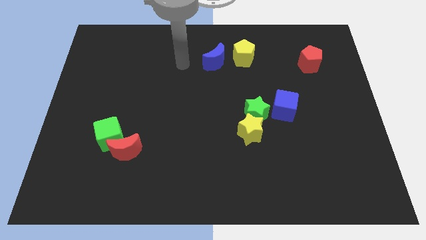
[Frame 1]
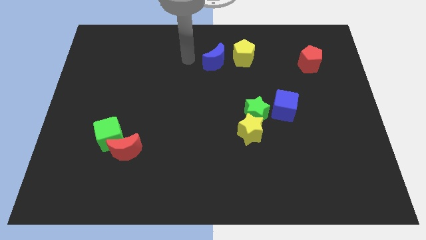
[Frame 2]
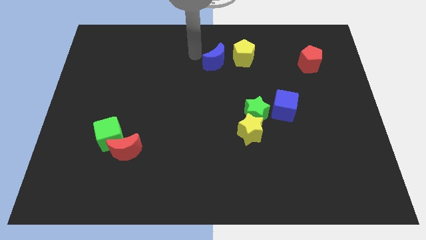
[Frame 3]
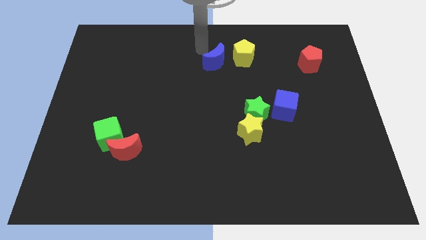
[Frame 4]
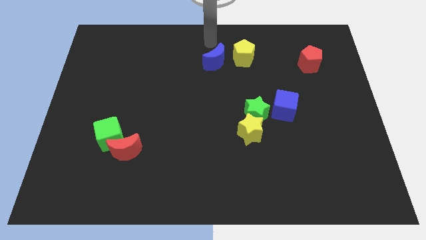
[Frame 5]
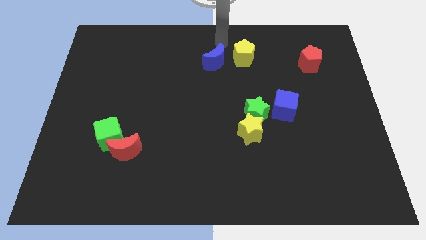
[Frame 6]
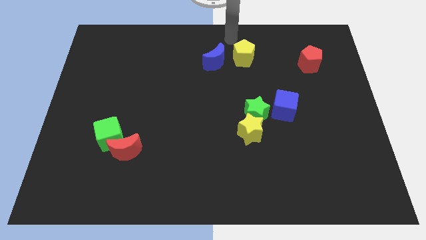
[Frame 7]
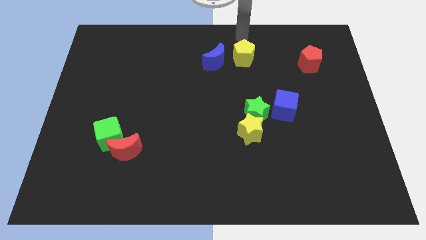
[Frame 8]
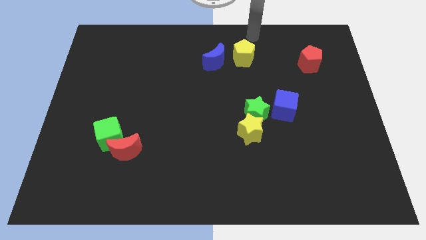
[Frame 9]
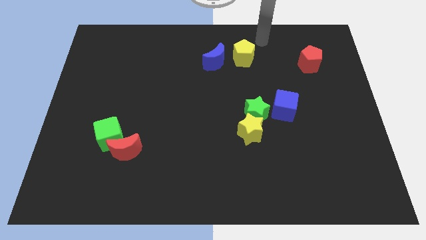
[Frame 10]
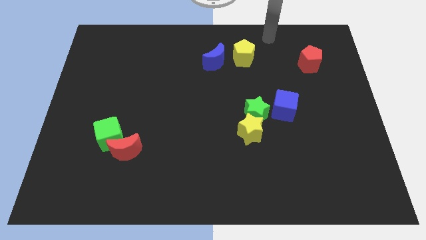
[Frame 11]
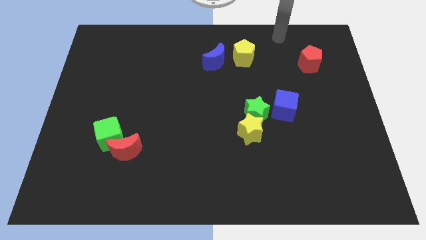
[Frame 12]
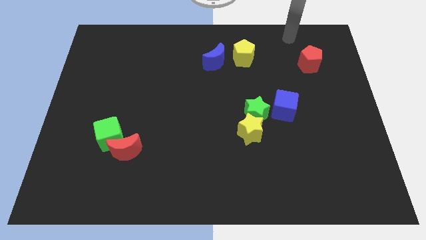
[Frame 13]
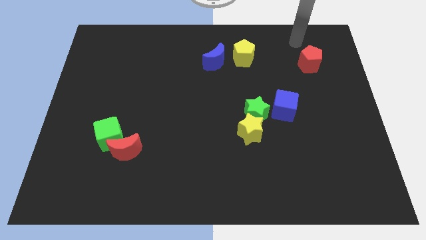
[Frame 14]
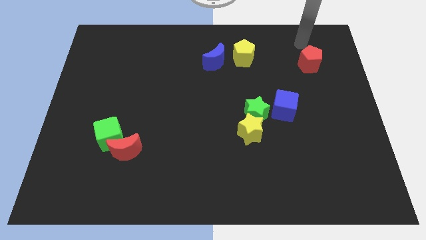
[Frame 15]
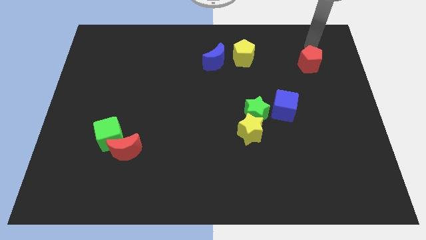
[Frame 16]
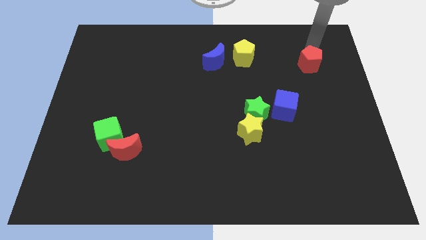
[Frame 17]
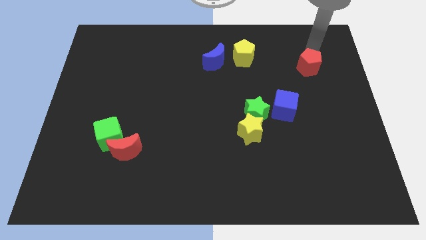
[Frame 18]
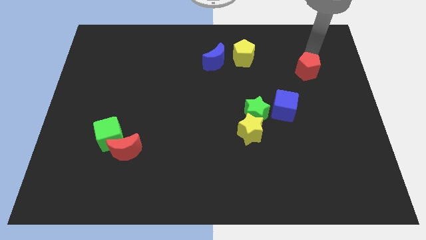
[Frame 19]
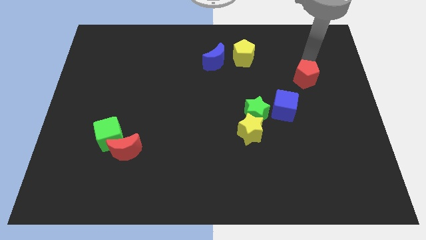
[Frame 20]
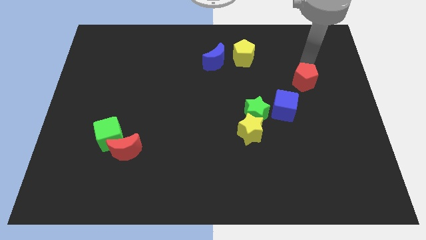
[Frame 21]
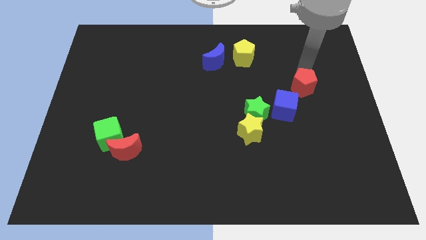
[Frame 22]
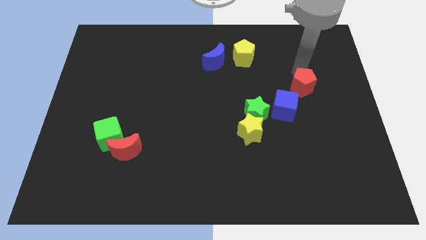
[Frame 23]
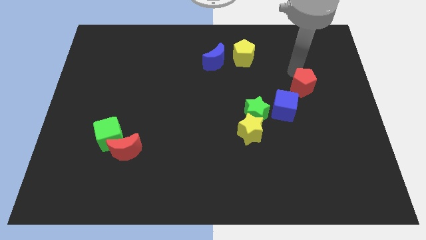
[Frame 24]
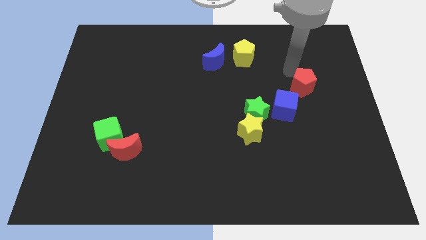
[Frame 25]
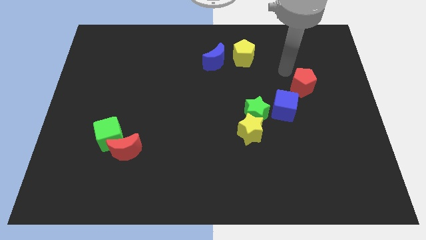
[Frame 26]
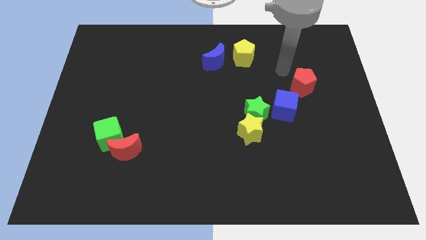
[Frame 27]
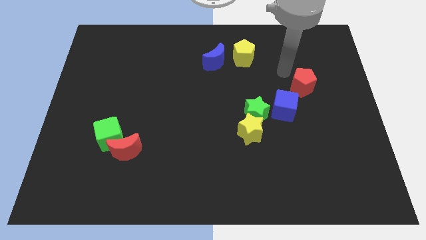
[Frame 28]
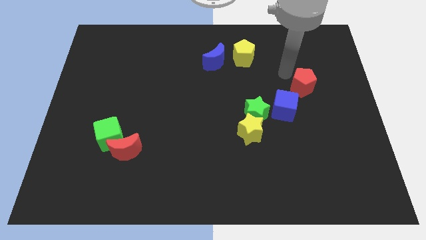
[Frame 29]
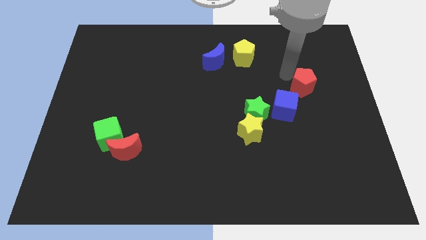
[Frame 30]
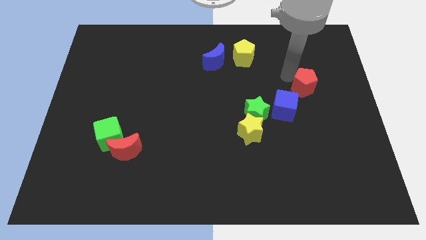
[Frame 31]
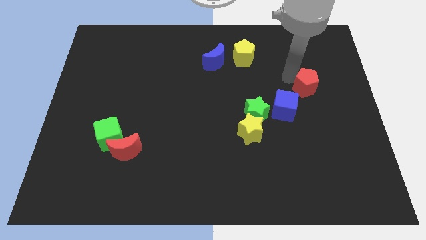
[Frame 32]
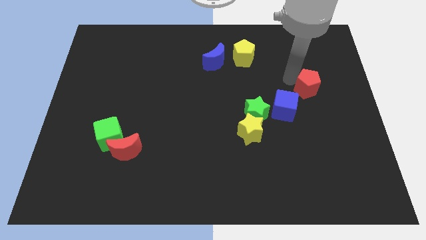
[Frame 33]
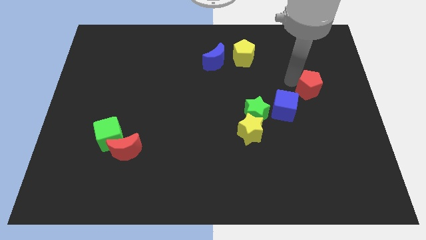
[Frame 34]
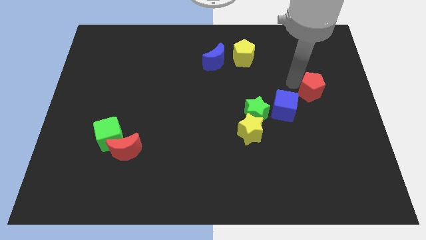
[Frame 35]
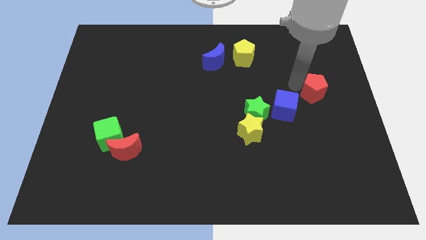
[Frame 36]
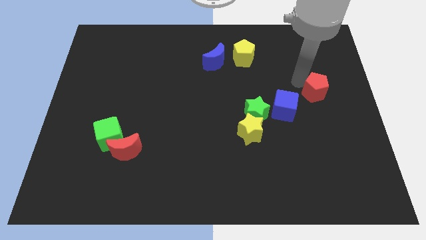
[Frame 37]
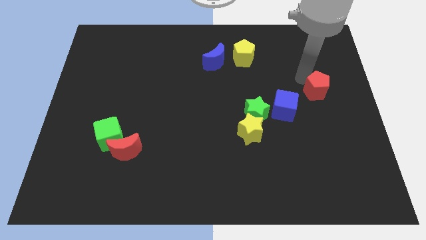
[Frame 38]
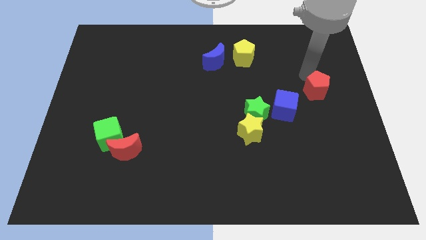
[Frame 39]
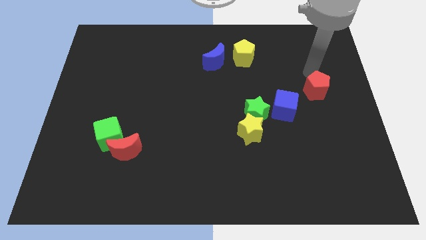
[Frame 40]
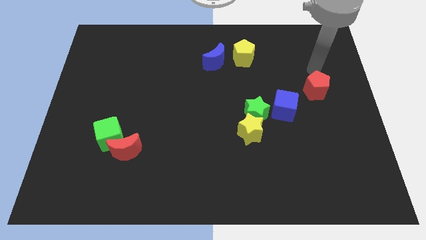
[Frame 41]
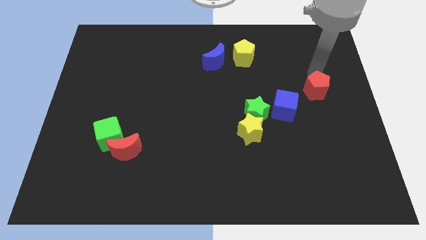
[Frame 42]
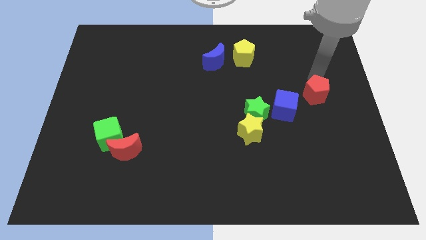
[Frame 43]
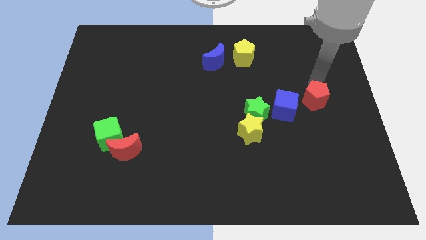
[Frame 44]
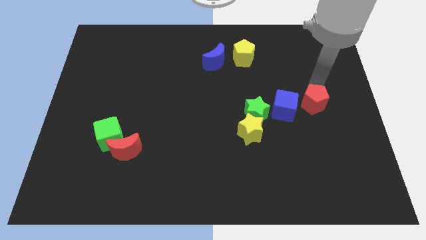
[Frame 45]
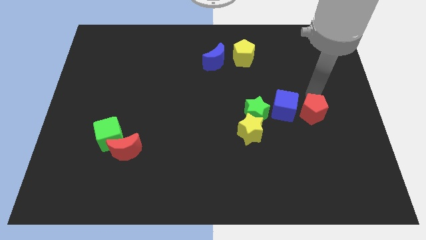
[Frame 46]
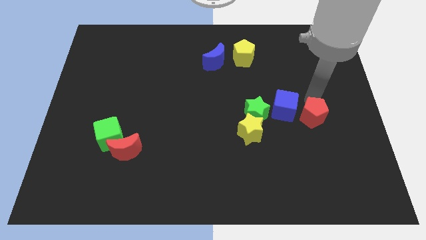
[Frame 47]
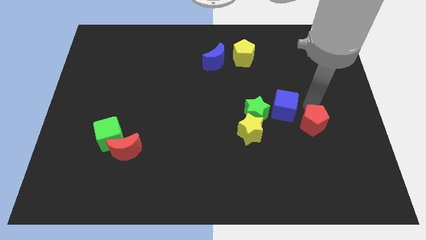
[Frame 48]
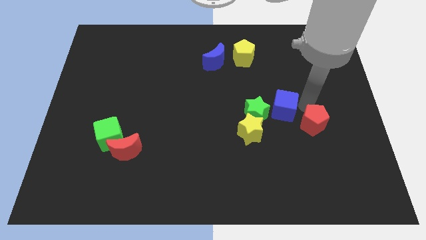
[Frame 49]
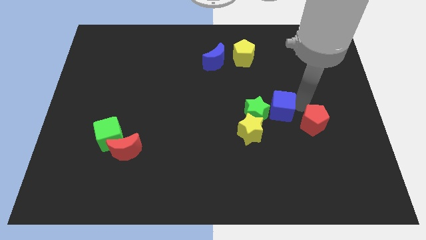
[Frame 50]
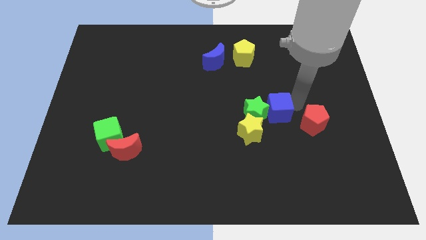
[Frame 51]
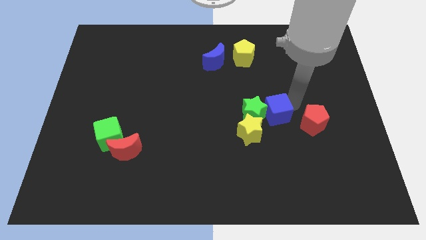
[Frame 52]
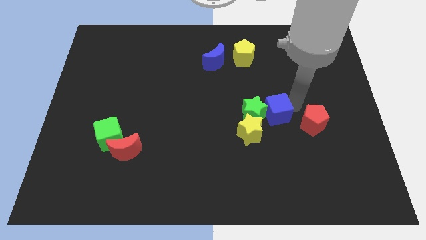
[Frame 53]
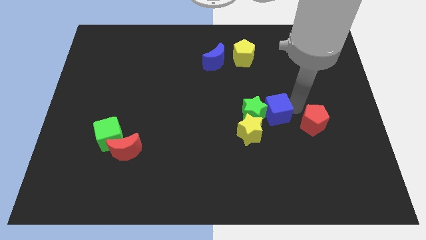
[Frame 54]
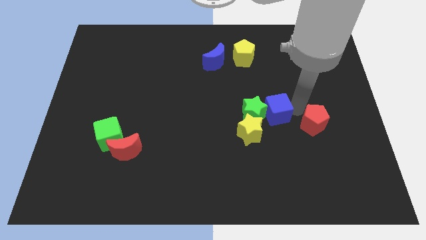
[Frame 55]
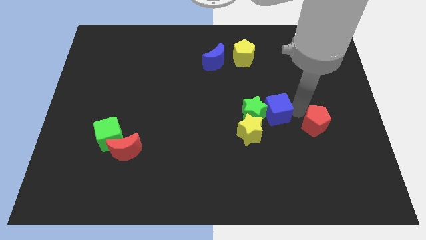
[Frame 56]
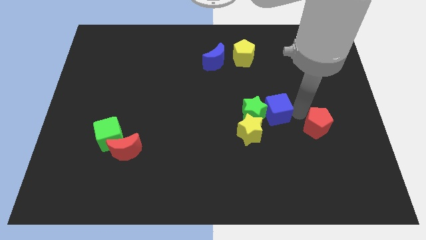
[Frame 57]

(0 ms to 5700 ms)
move the red pentagon downwards

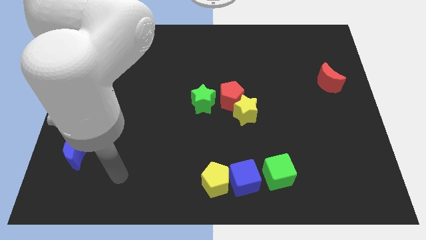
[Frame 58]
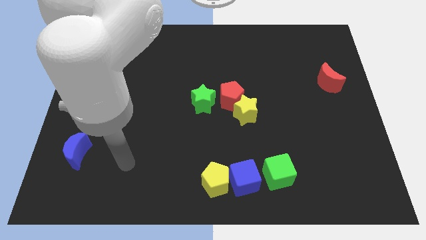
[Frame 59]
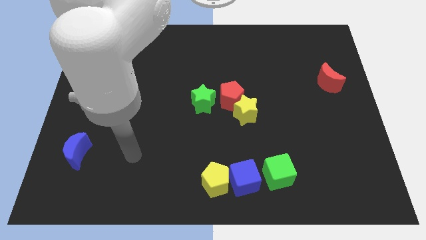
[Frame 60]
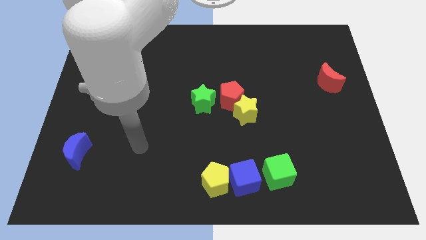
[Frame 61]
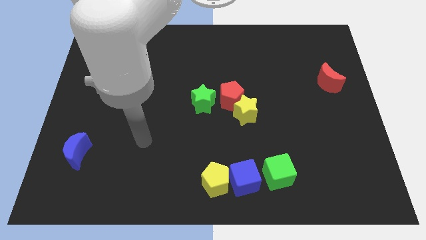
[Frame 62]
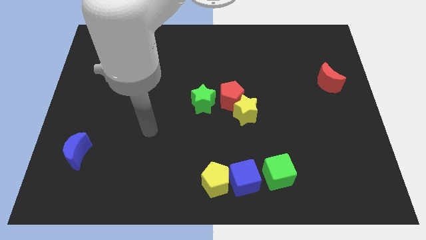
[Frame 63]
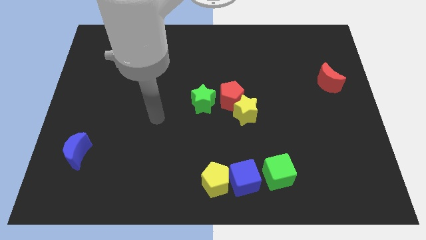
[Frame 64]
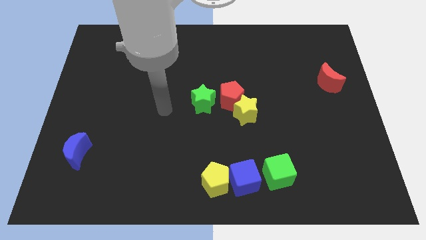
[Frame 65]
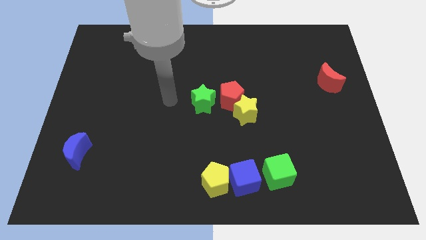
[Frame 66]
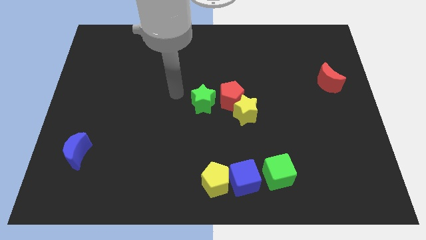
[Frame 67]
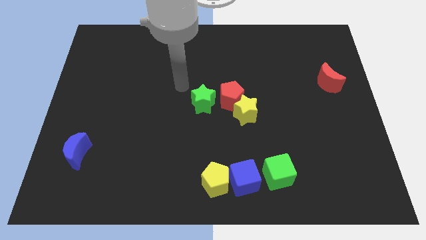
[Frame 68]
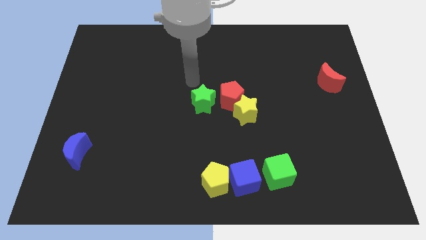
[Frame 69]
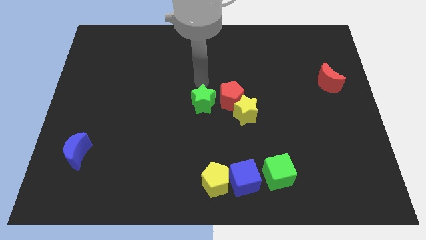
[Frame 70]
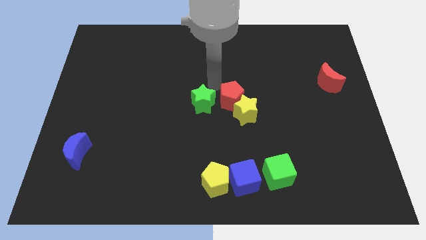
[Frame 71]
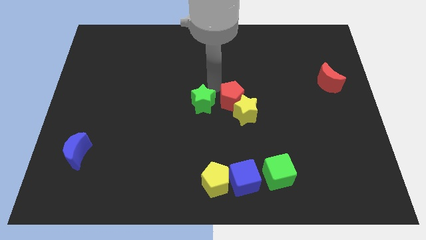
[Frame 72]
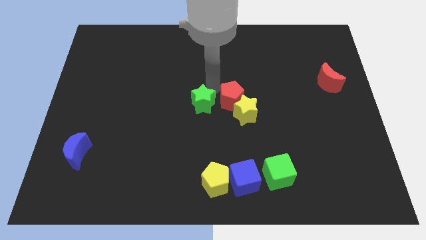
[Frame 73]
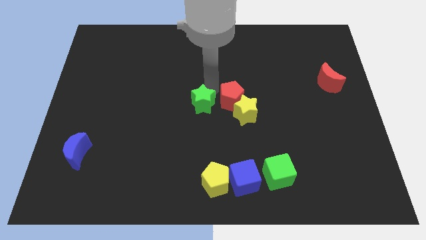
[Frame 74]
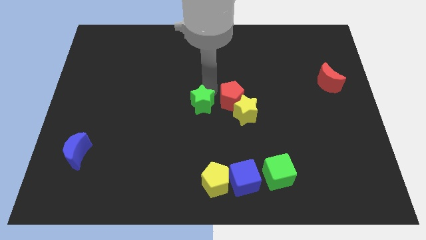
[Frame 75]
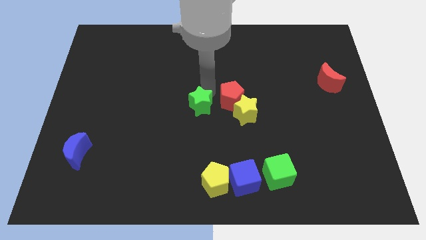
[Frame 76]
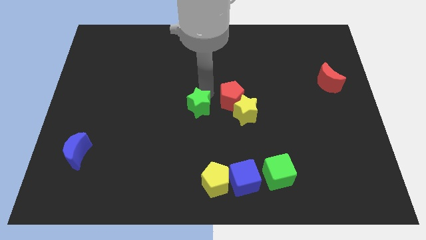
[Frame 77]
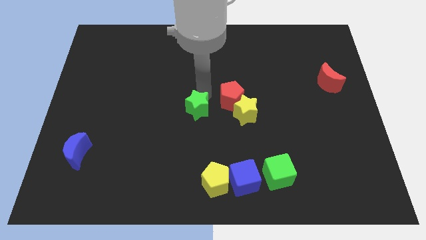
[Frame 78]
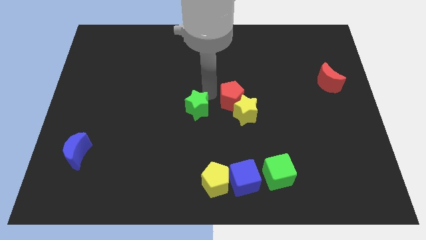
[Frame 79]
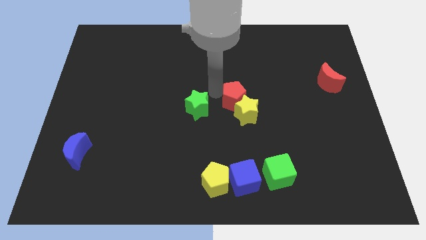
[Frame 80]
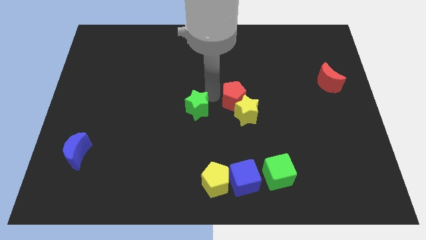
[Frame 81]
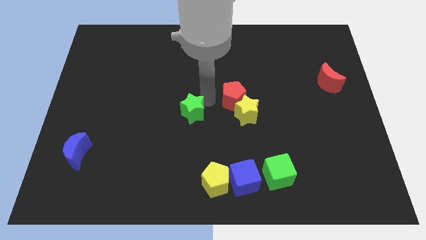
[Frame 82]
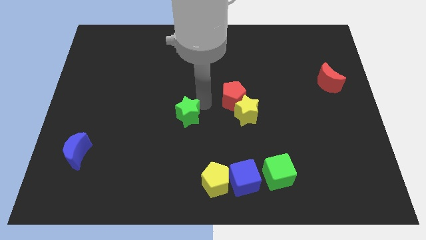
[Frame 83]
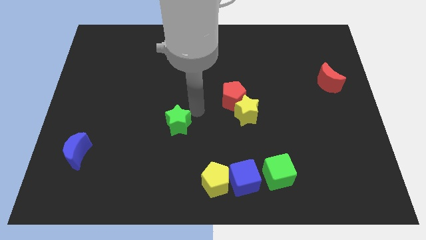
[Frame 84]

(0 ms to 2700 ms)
slightly push the green star downwards and left
